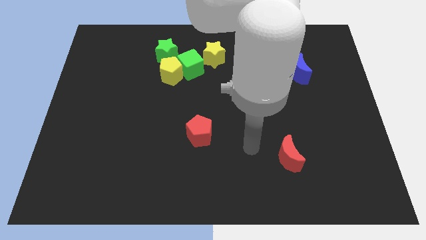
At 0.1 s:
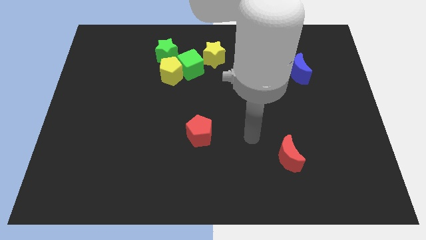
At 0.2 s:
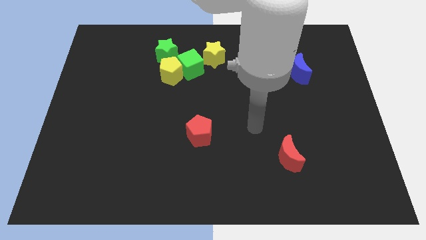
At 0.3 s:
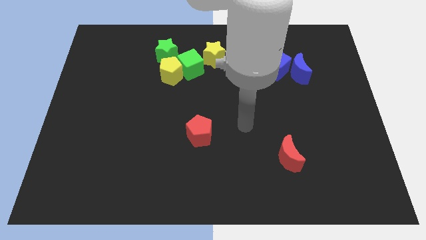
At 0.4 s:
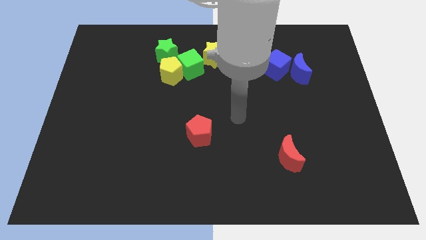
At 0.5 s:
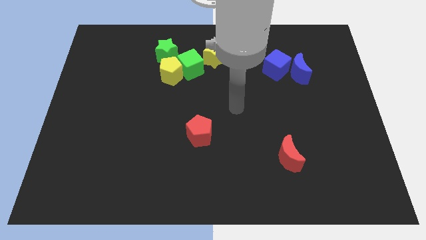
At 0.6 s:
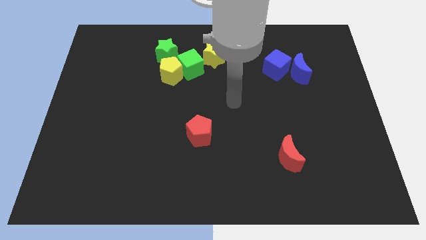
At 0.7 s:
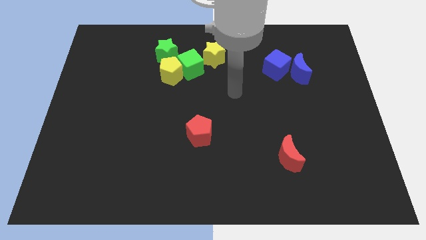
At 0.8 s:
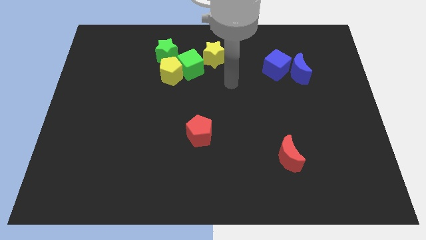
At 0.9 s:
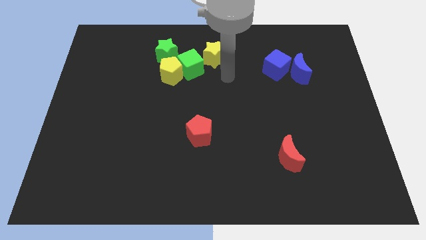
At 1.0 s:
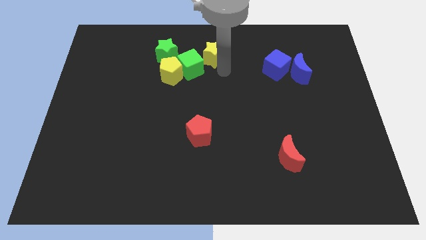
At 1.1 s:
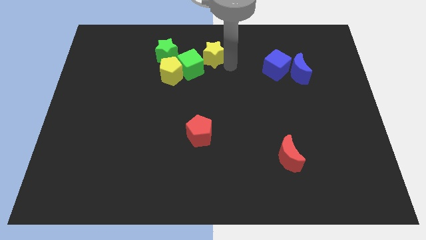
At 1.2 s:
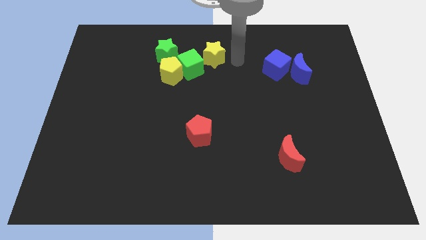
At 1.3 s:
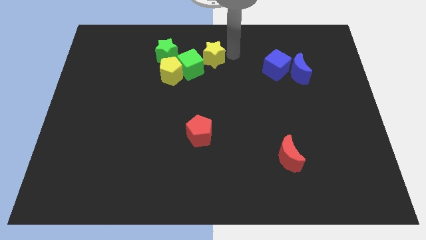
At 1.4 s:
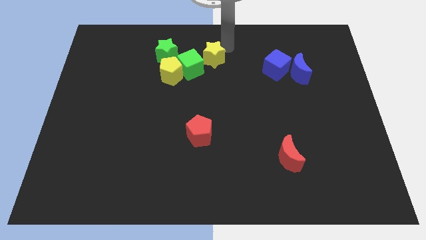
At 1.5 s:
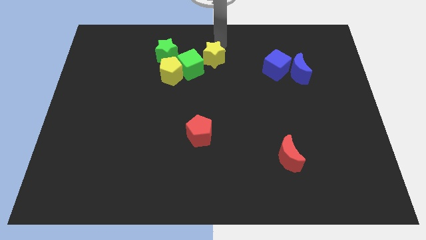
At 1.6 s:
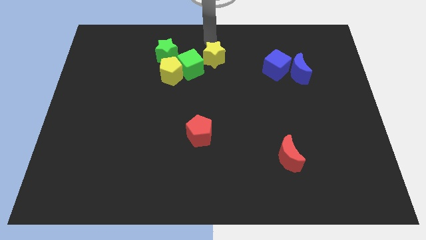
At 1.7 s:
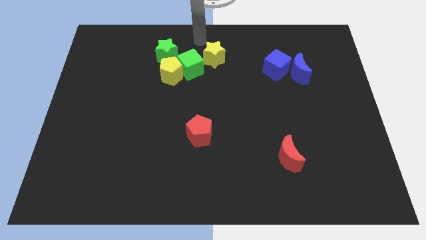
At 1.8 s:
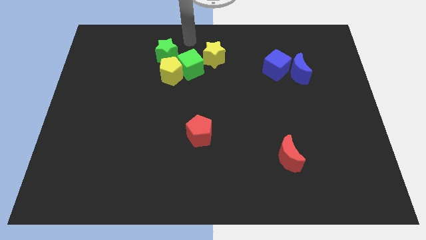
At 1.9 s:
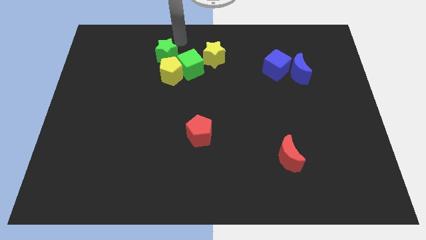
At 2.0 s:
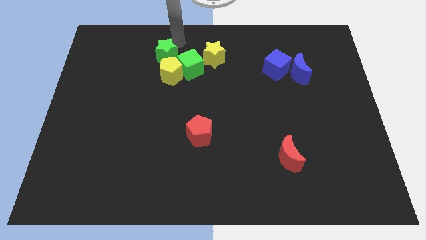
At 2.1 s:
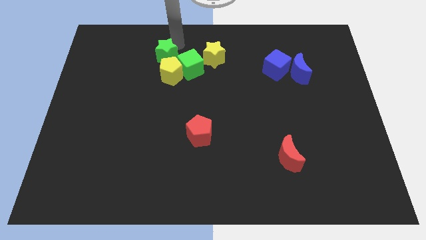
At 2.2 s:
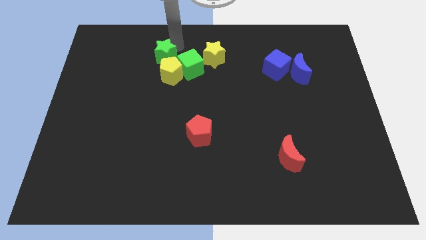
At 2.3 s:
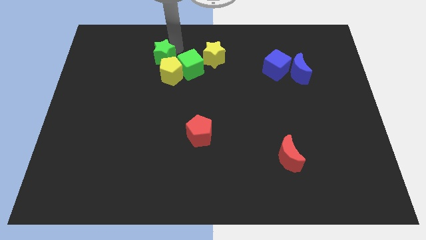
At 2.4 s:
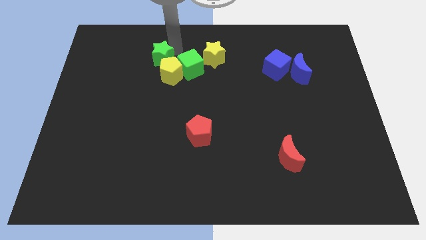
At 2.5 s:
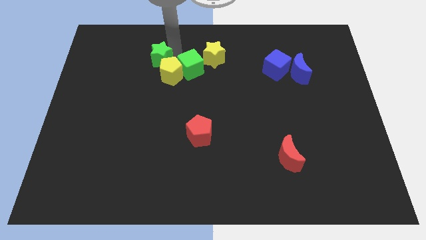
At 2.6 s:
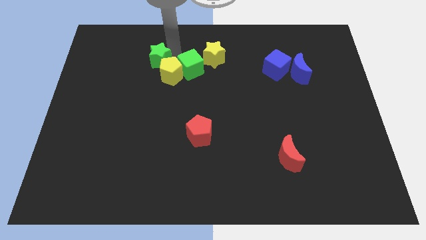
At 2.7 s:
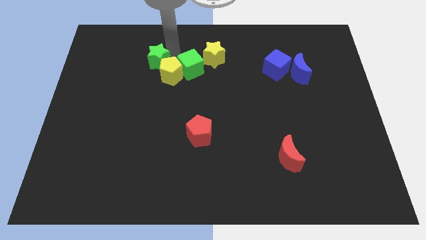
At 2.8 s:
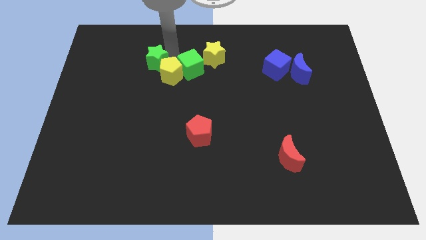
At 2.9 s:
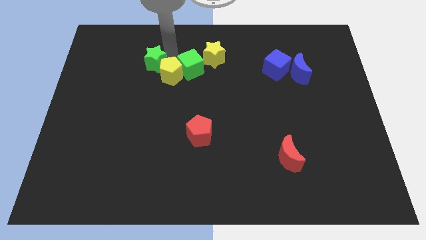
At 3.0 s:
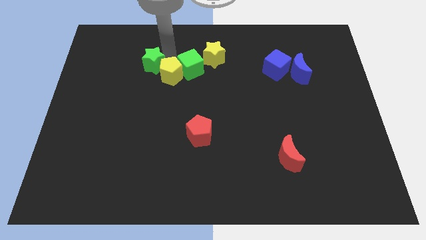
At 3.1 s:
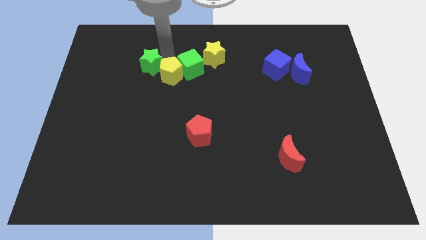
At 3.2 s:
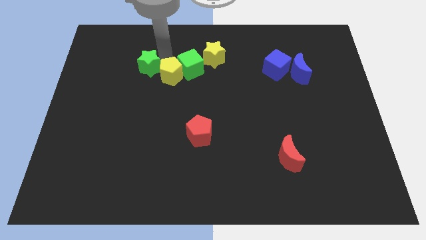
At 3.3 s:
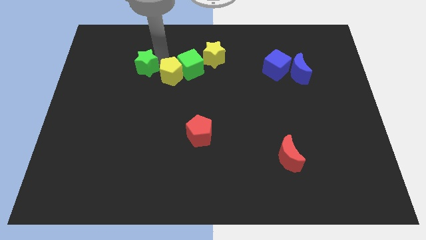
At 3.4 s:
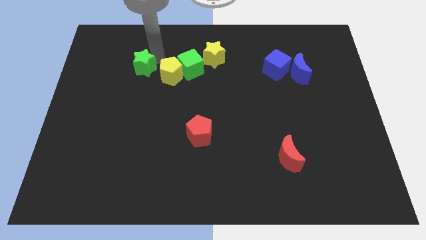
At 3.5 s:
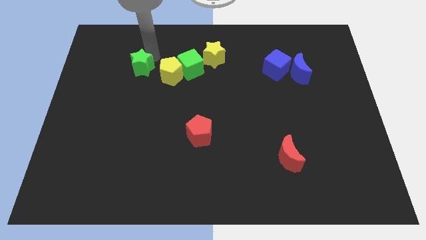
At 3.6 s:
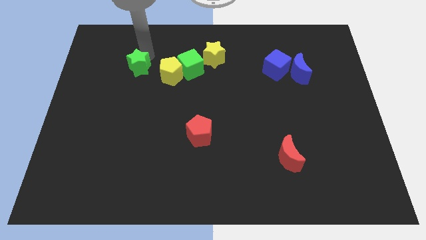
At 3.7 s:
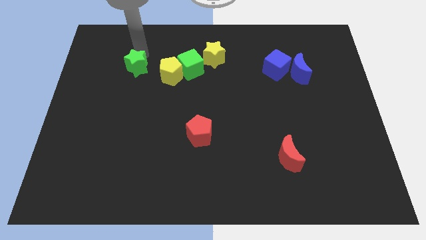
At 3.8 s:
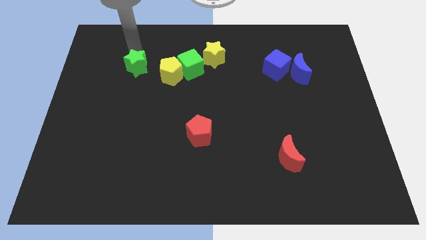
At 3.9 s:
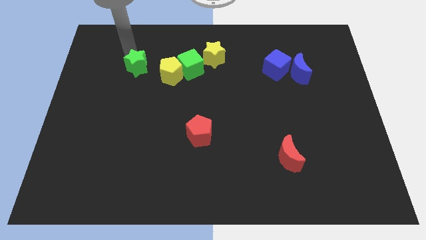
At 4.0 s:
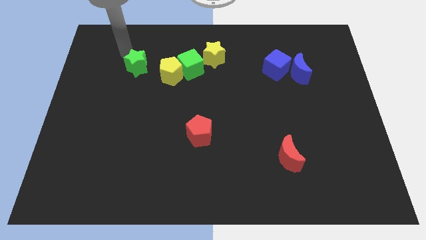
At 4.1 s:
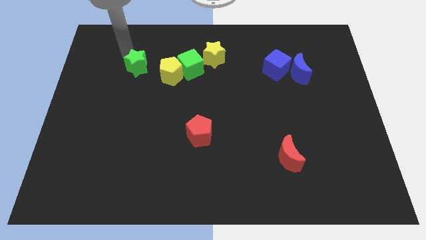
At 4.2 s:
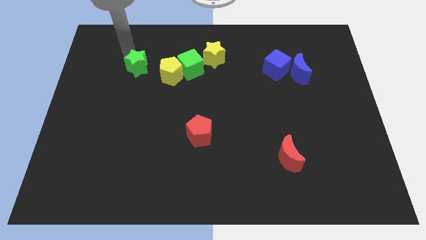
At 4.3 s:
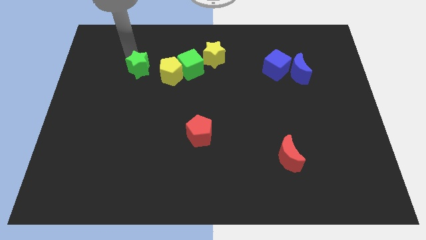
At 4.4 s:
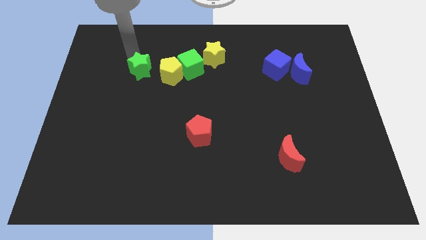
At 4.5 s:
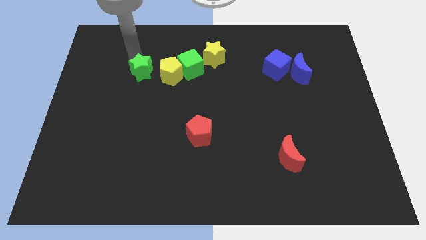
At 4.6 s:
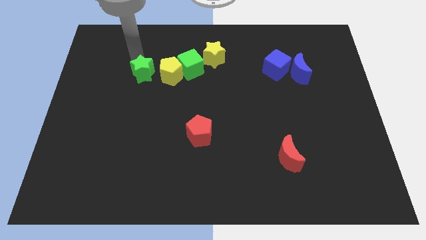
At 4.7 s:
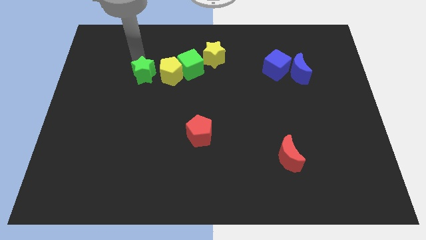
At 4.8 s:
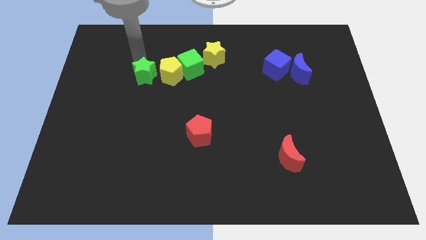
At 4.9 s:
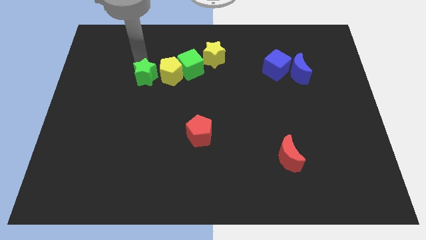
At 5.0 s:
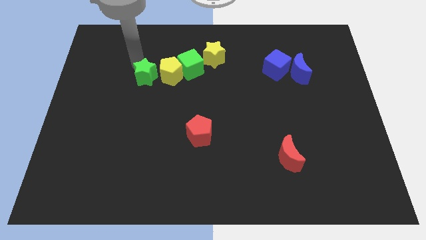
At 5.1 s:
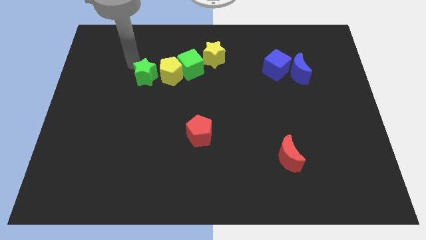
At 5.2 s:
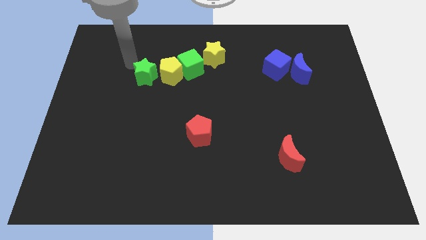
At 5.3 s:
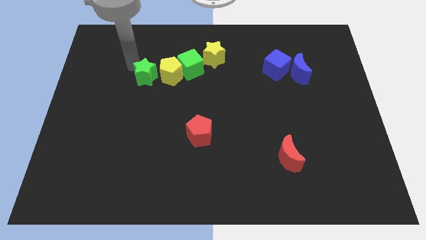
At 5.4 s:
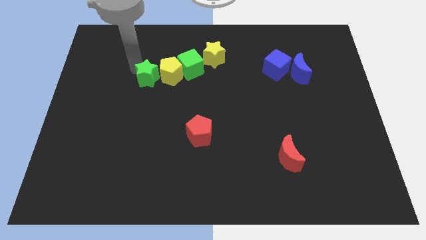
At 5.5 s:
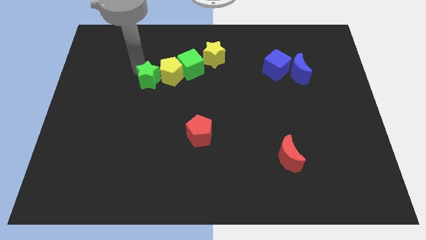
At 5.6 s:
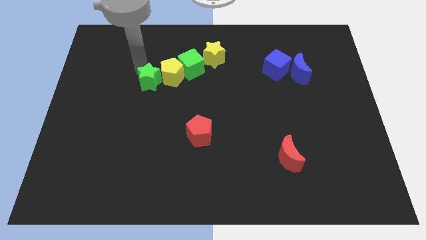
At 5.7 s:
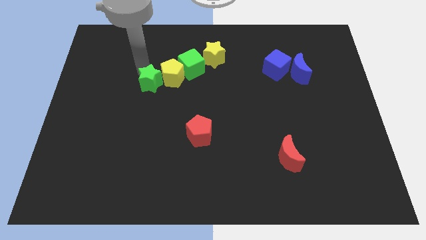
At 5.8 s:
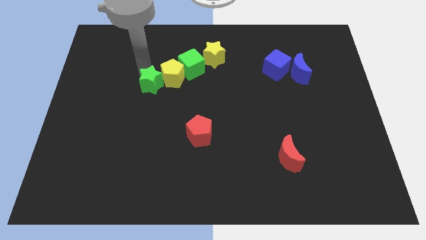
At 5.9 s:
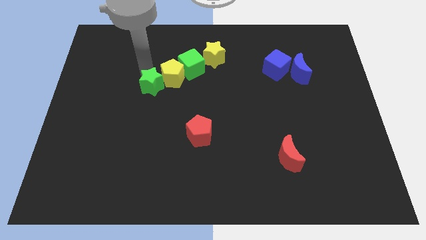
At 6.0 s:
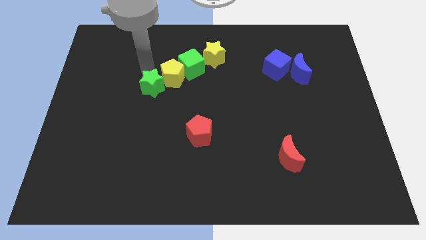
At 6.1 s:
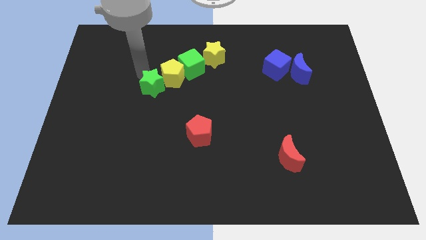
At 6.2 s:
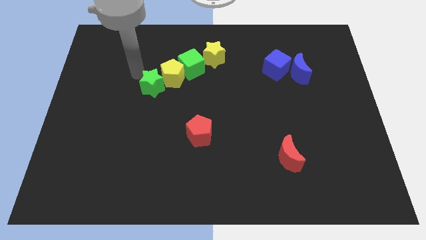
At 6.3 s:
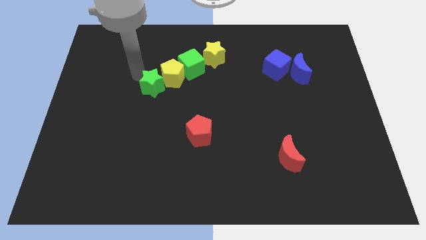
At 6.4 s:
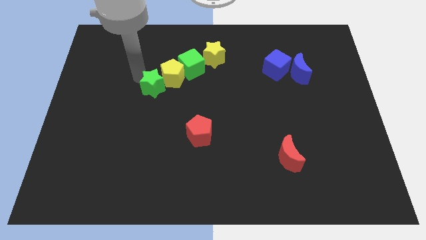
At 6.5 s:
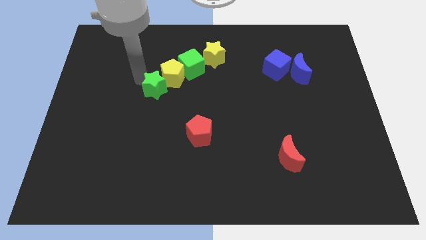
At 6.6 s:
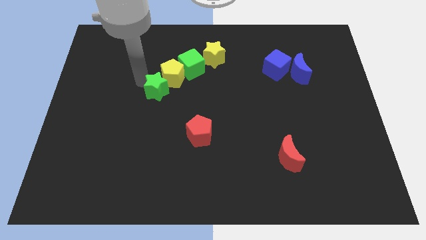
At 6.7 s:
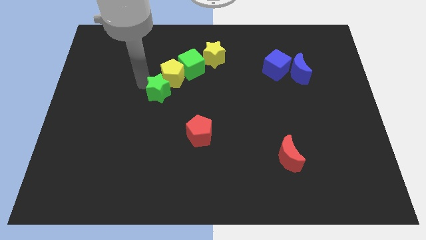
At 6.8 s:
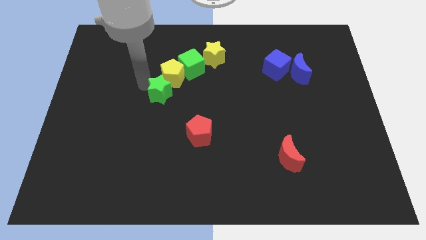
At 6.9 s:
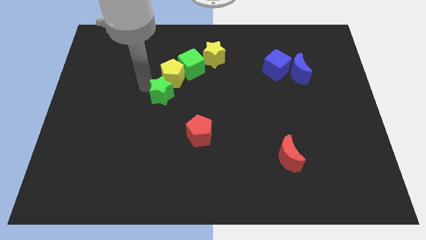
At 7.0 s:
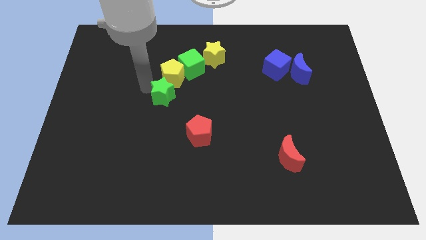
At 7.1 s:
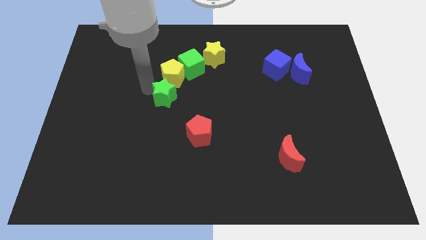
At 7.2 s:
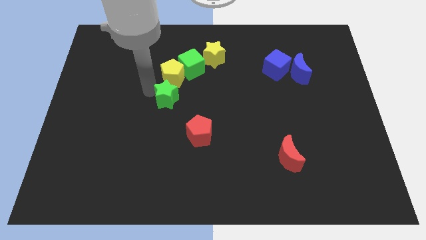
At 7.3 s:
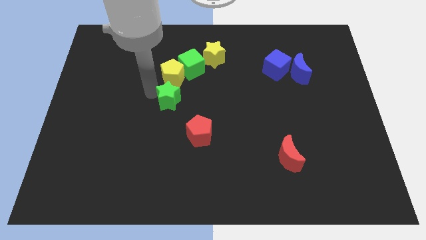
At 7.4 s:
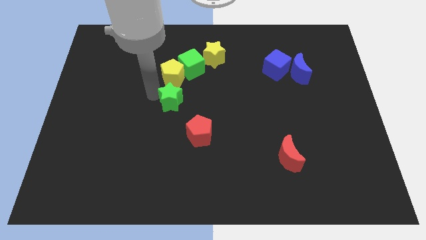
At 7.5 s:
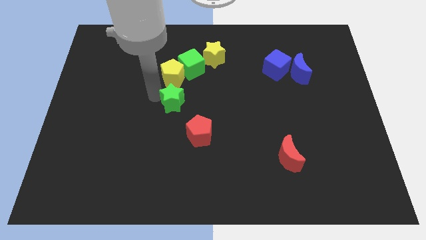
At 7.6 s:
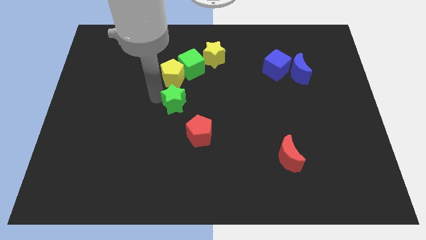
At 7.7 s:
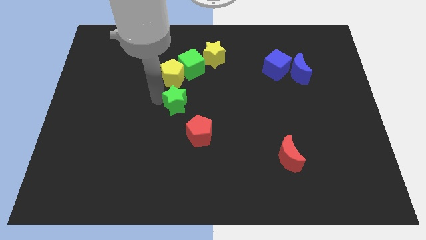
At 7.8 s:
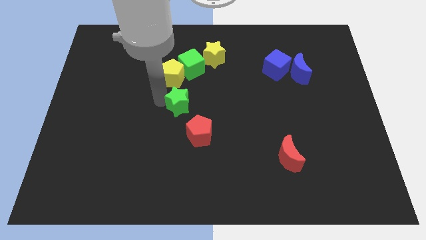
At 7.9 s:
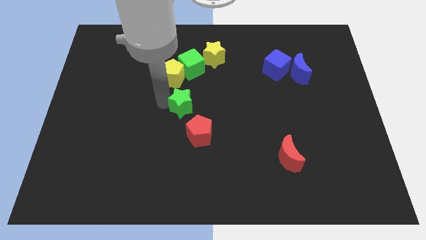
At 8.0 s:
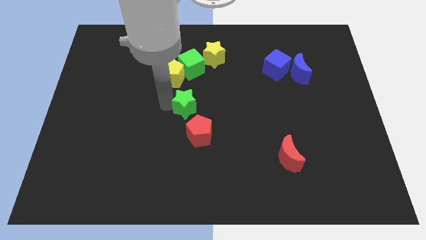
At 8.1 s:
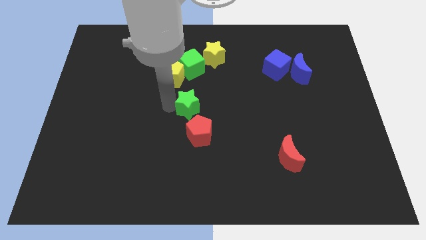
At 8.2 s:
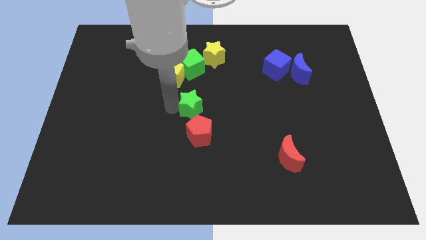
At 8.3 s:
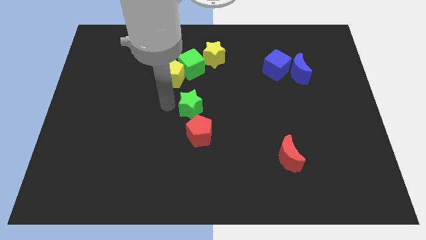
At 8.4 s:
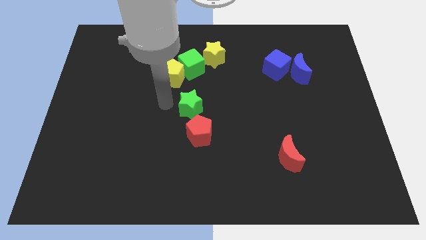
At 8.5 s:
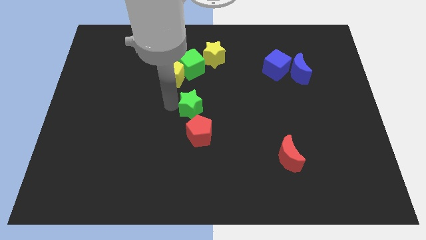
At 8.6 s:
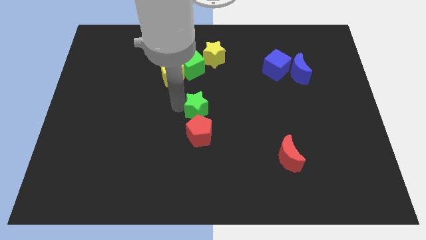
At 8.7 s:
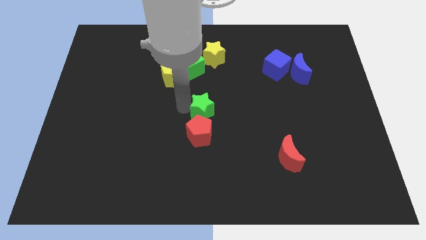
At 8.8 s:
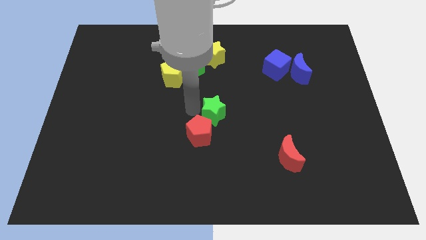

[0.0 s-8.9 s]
push the green star downwards and then to the right
